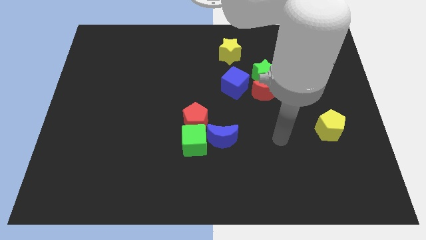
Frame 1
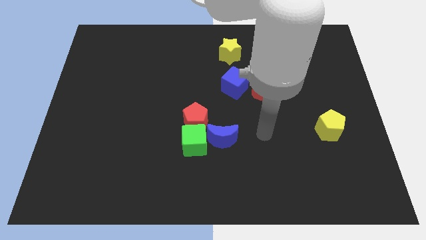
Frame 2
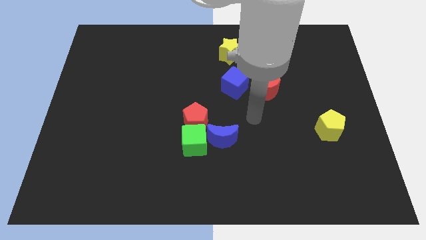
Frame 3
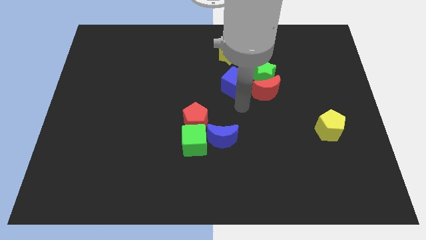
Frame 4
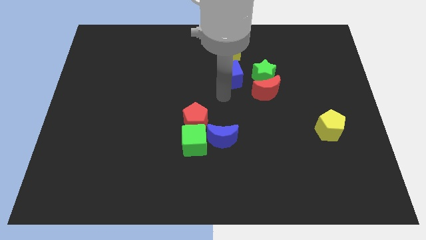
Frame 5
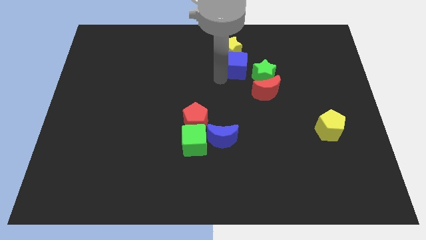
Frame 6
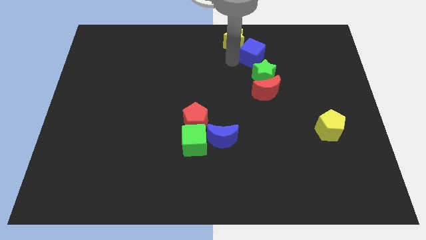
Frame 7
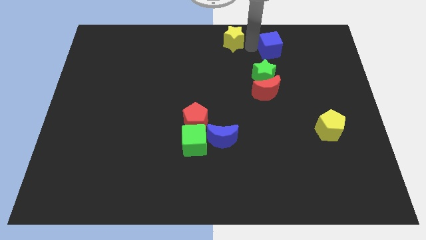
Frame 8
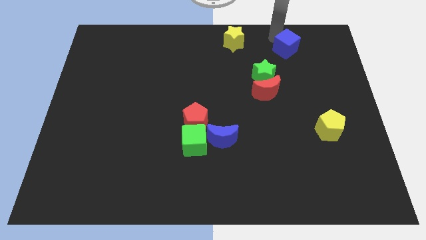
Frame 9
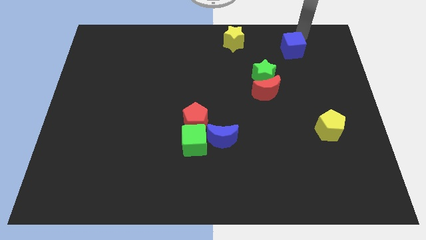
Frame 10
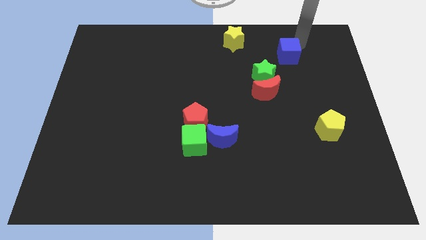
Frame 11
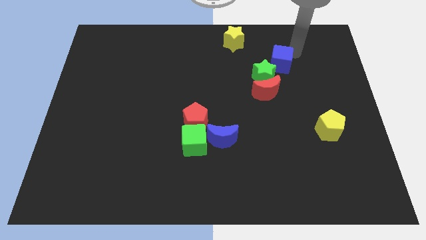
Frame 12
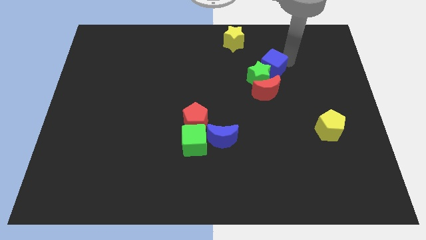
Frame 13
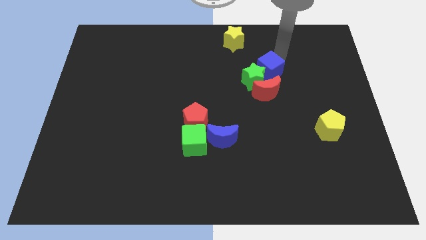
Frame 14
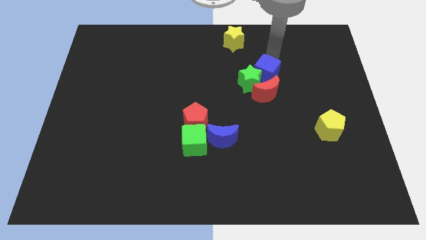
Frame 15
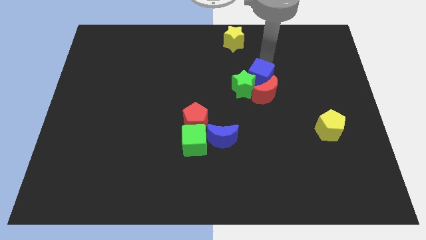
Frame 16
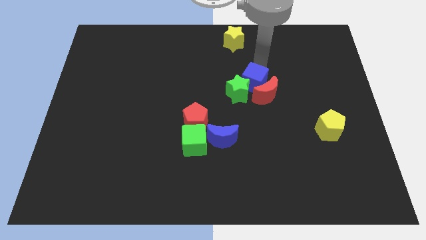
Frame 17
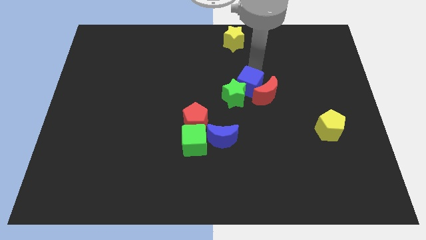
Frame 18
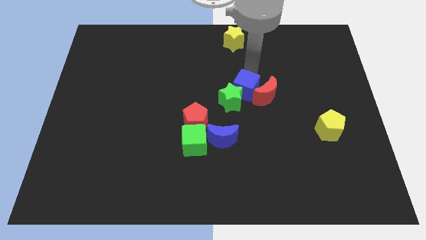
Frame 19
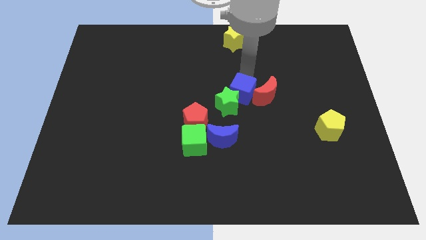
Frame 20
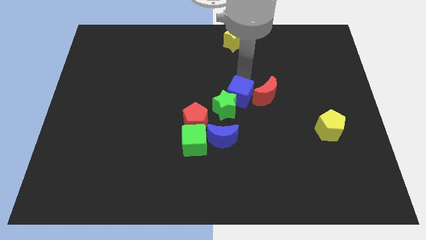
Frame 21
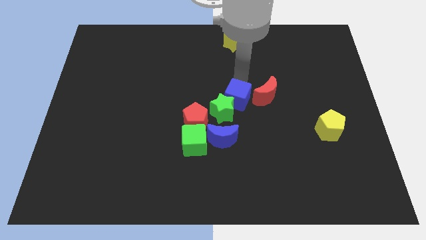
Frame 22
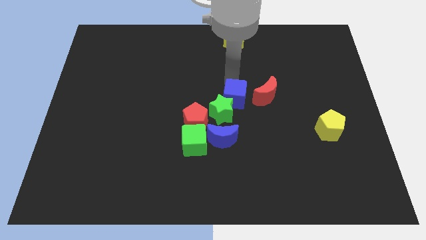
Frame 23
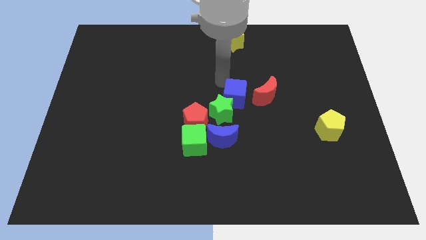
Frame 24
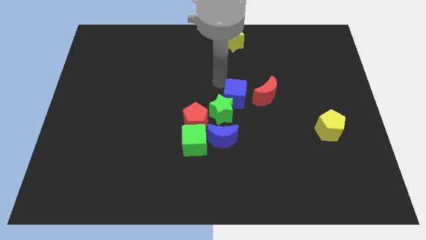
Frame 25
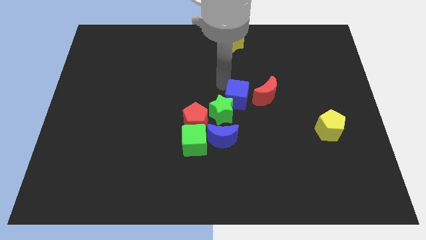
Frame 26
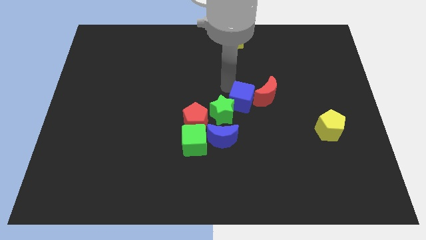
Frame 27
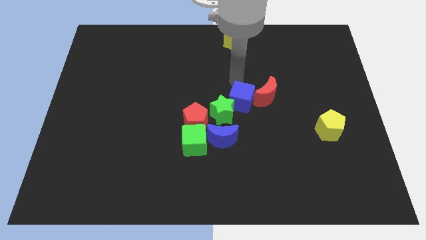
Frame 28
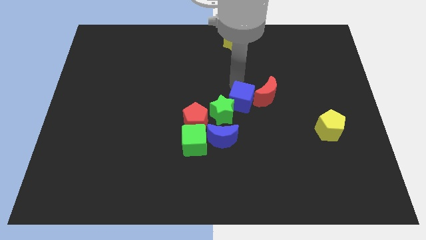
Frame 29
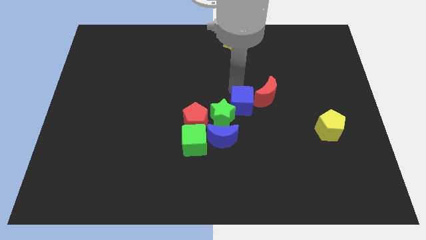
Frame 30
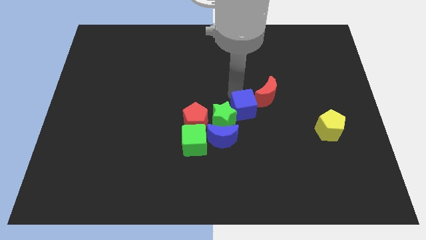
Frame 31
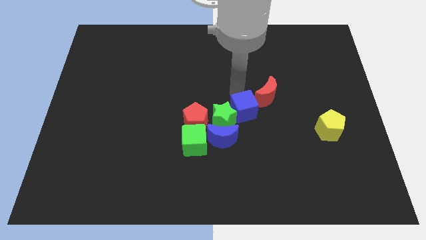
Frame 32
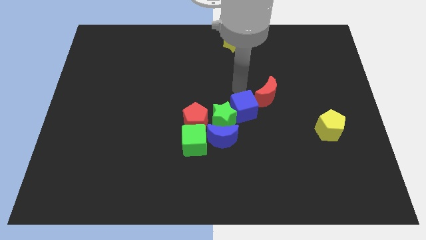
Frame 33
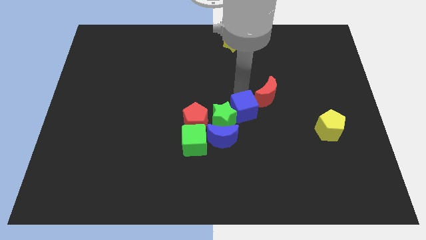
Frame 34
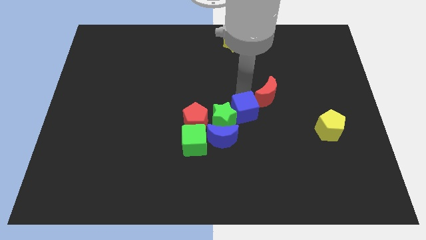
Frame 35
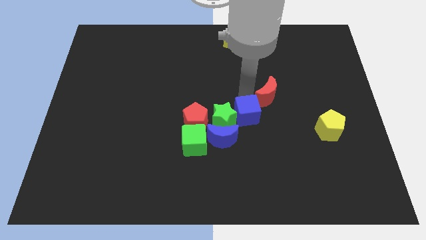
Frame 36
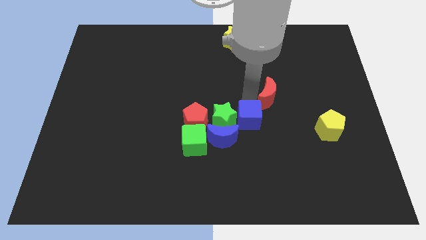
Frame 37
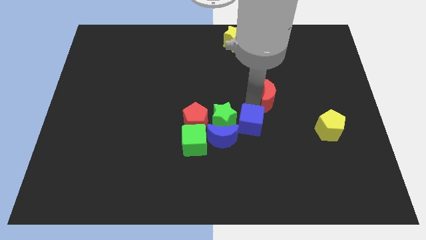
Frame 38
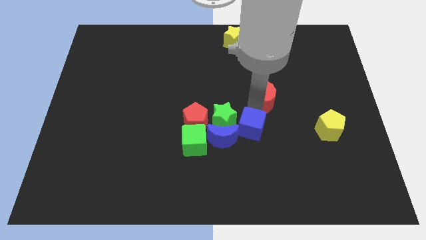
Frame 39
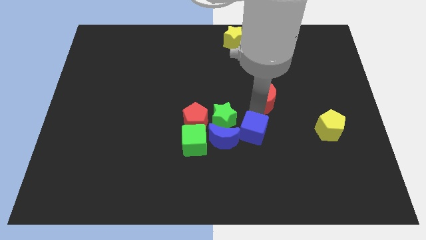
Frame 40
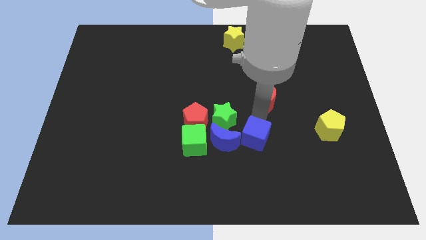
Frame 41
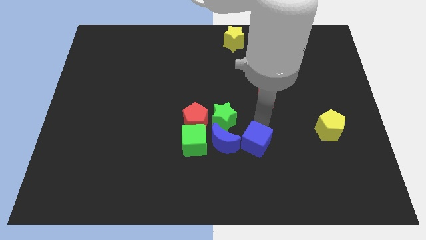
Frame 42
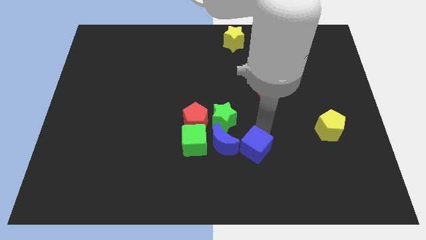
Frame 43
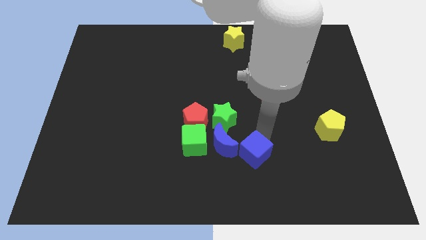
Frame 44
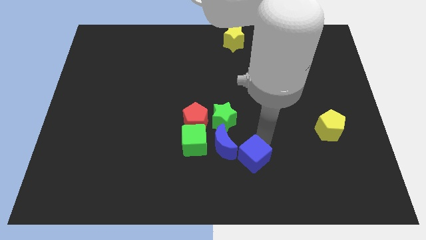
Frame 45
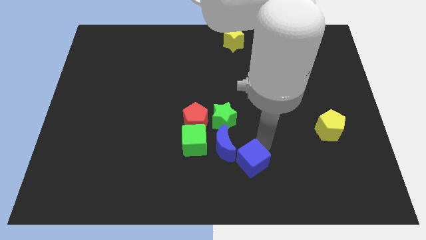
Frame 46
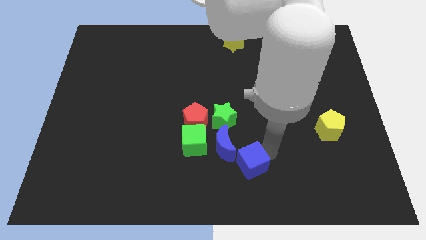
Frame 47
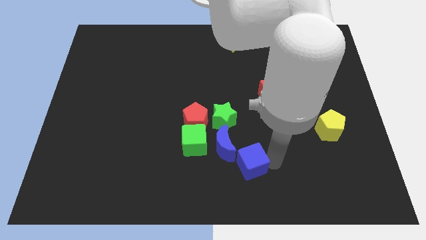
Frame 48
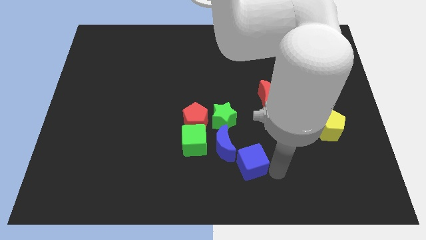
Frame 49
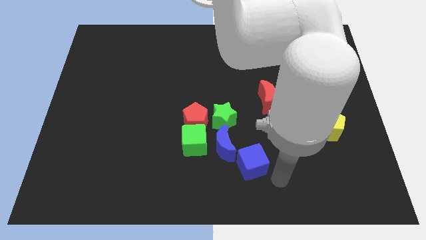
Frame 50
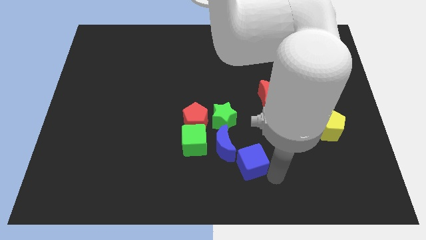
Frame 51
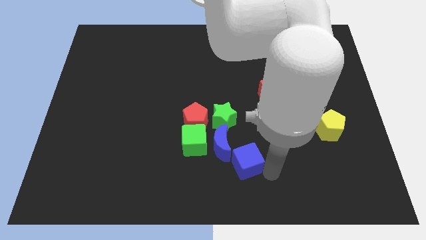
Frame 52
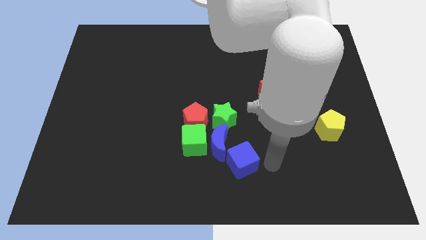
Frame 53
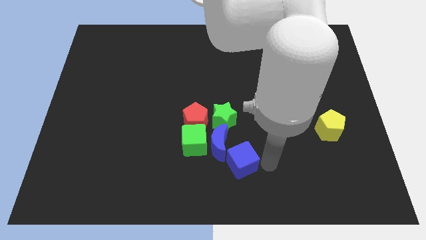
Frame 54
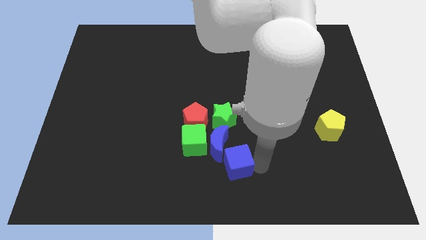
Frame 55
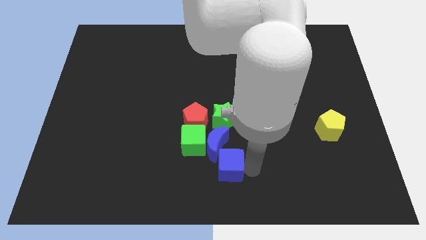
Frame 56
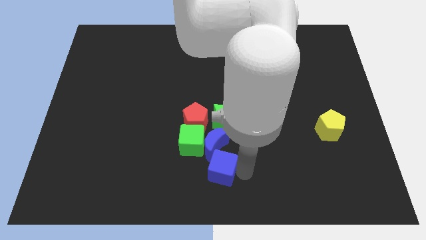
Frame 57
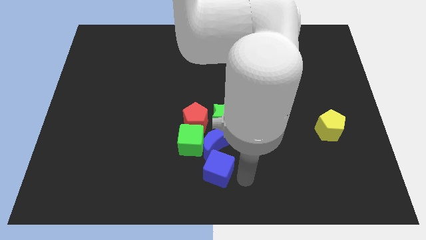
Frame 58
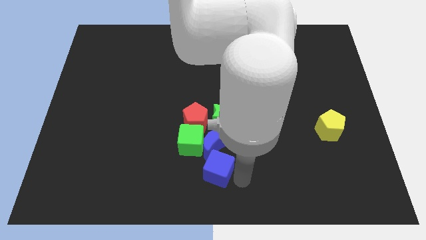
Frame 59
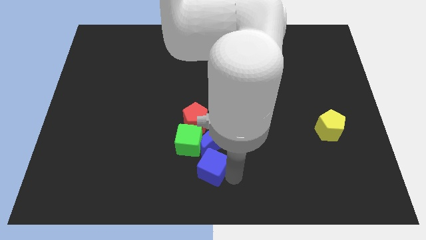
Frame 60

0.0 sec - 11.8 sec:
put the blue cube to the bottom of the red pentagon

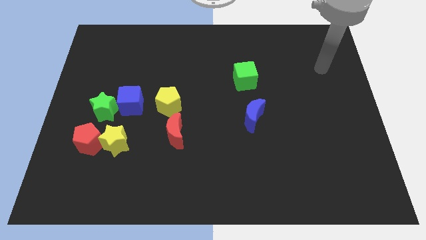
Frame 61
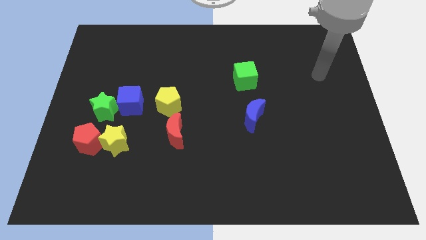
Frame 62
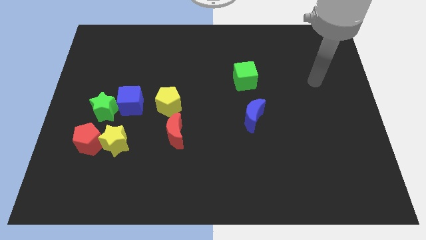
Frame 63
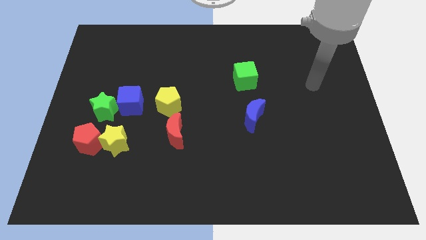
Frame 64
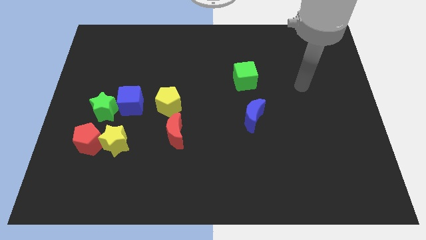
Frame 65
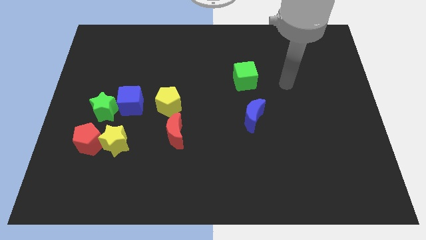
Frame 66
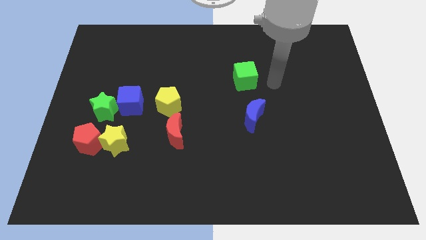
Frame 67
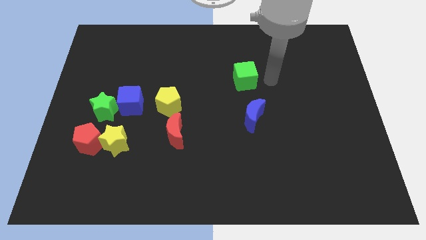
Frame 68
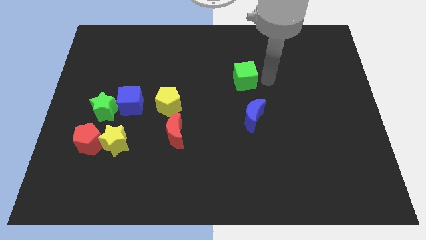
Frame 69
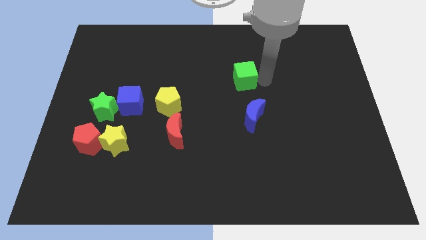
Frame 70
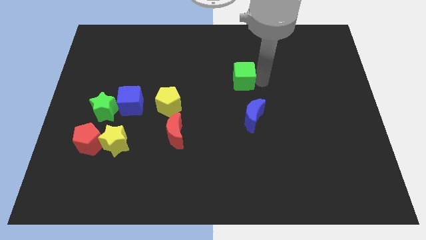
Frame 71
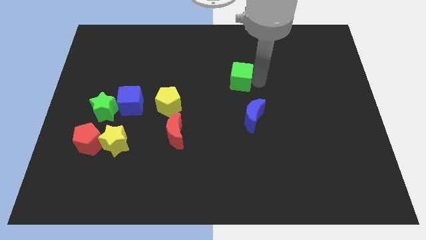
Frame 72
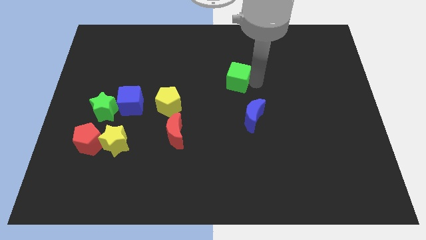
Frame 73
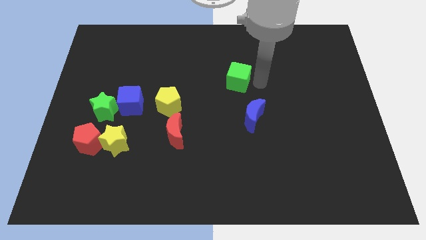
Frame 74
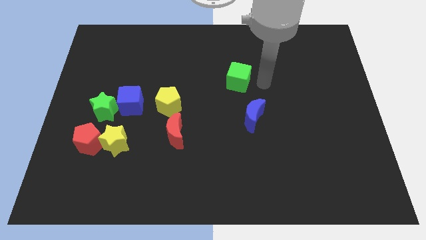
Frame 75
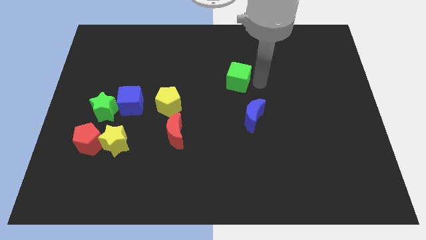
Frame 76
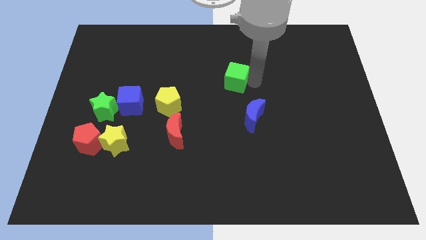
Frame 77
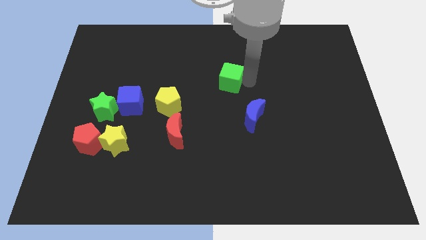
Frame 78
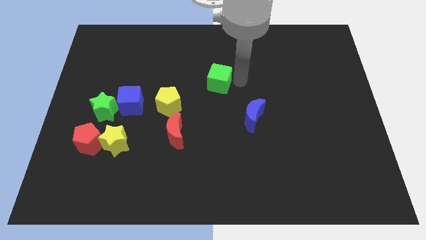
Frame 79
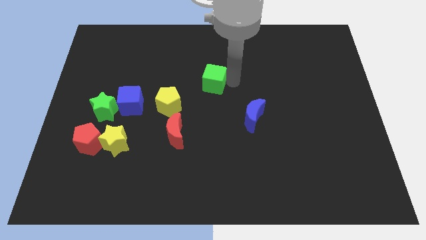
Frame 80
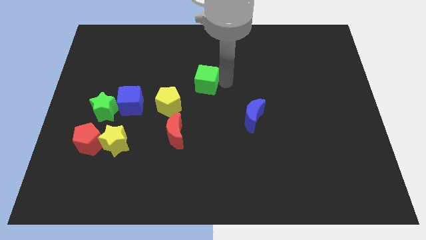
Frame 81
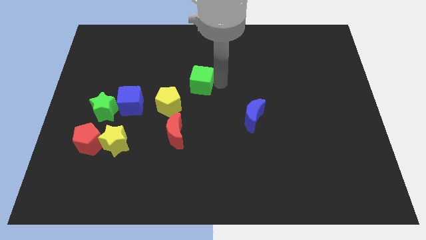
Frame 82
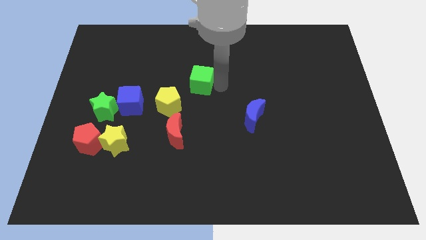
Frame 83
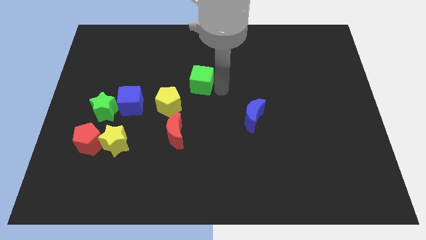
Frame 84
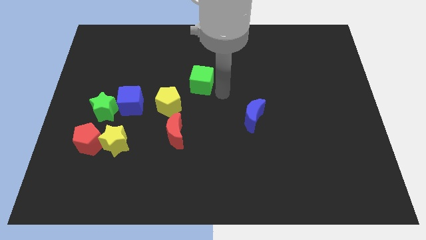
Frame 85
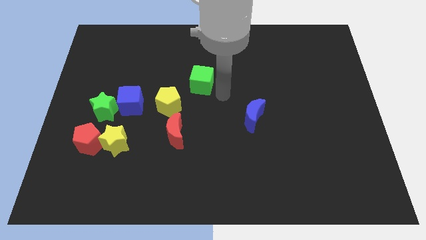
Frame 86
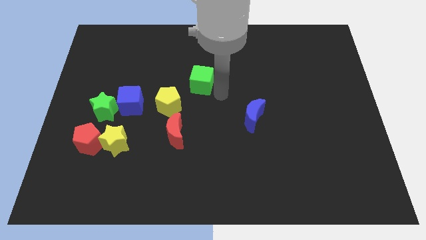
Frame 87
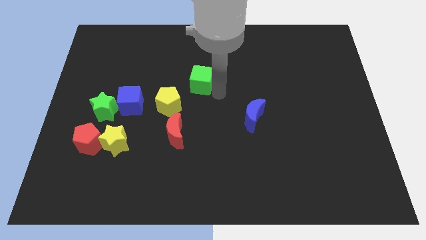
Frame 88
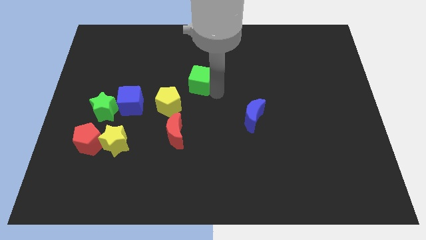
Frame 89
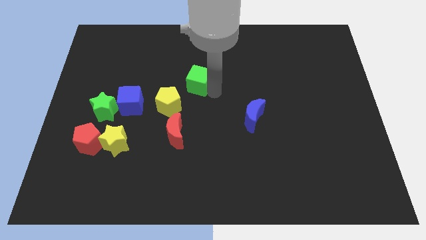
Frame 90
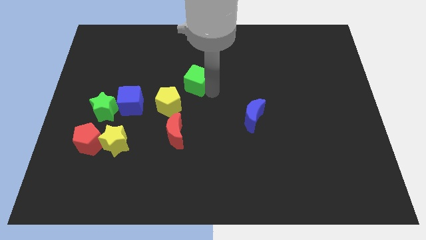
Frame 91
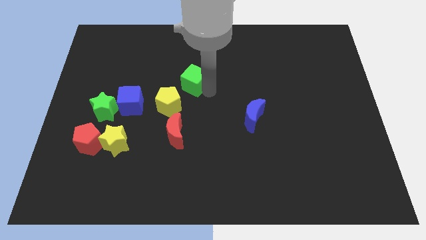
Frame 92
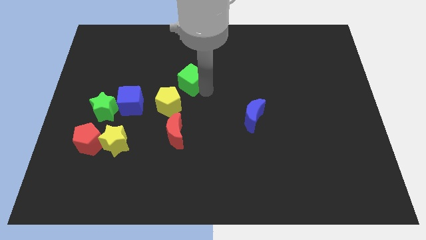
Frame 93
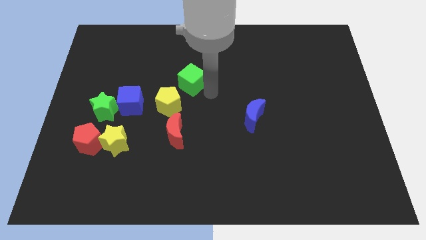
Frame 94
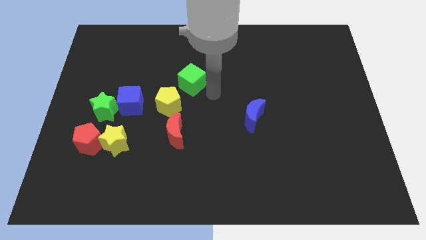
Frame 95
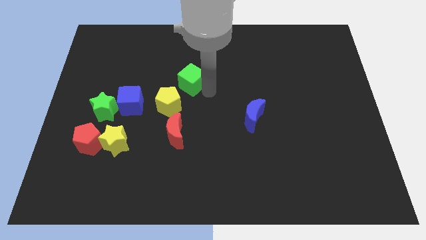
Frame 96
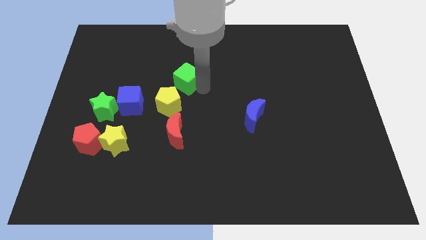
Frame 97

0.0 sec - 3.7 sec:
put the green cube above the yellow pentagon
